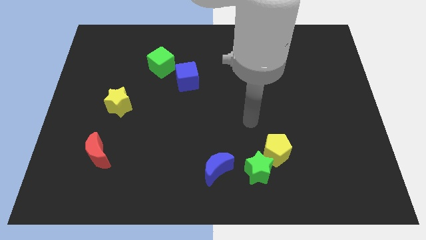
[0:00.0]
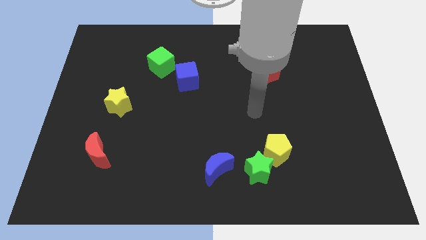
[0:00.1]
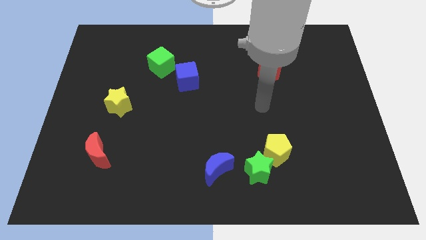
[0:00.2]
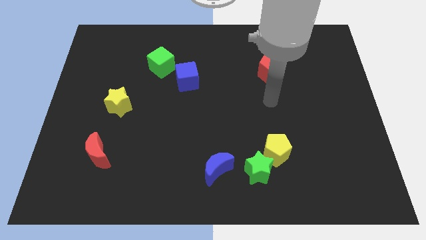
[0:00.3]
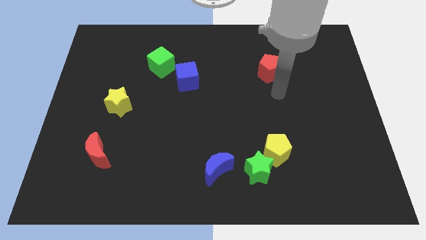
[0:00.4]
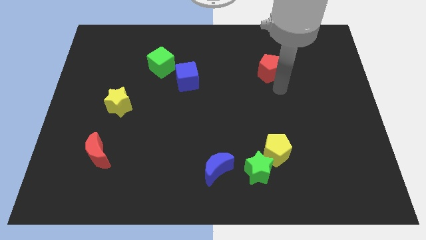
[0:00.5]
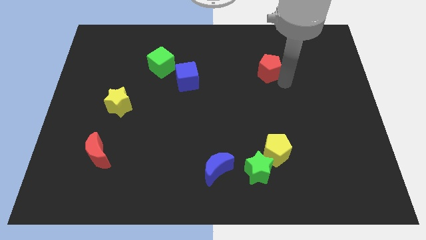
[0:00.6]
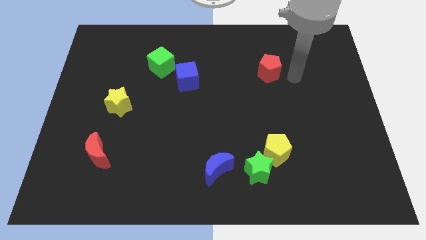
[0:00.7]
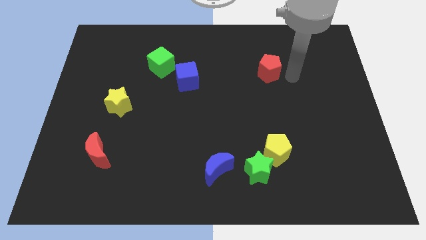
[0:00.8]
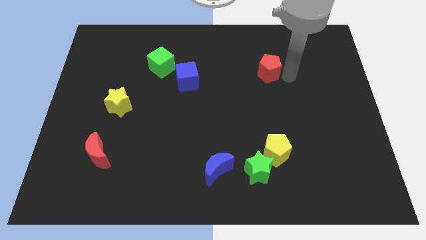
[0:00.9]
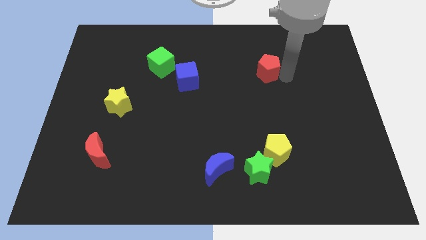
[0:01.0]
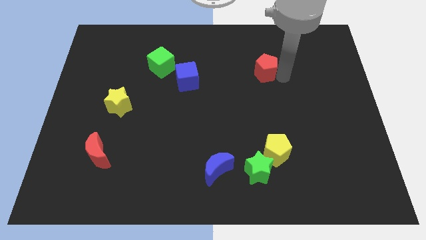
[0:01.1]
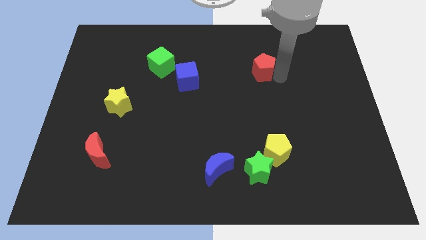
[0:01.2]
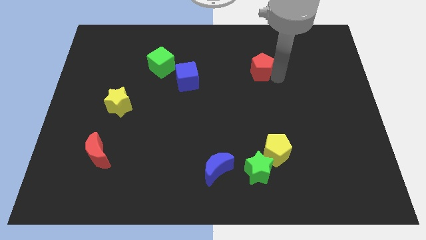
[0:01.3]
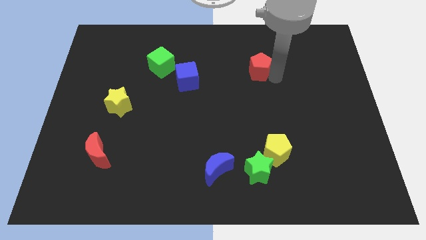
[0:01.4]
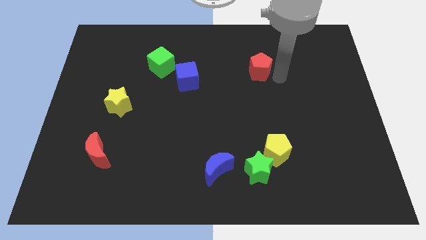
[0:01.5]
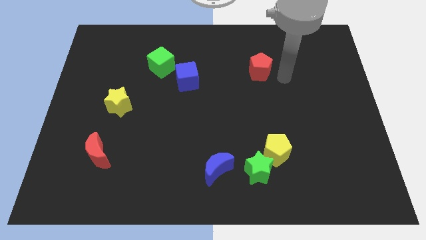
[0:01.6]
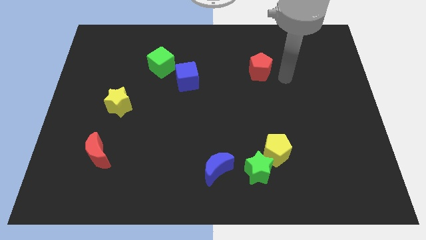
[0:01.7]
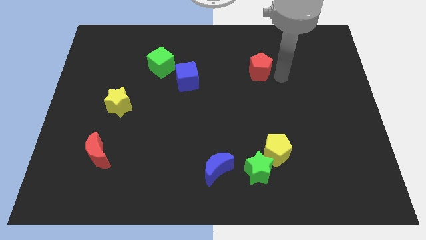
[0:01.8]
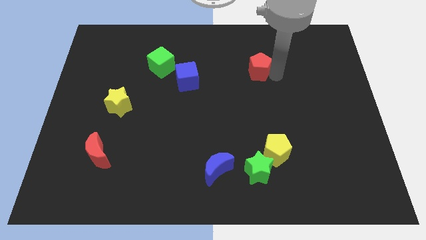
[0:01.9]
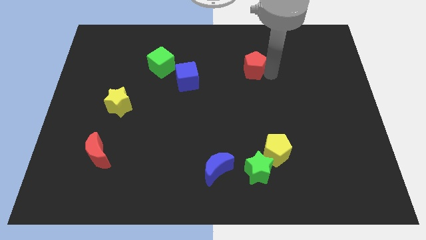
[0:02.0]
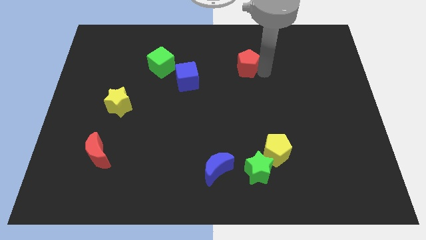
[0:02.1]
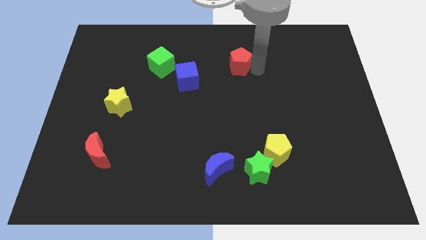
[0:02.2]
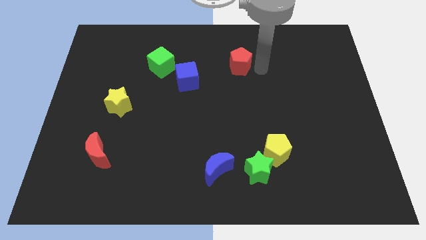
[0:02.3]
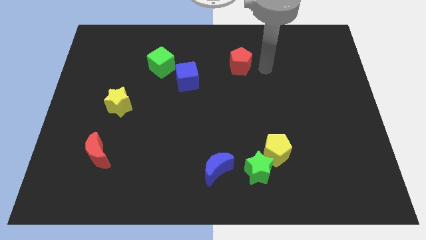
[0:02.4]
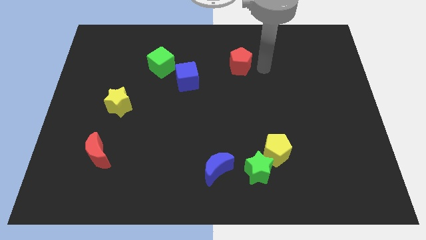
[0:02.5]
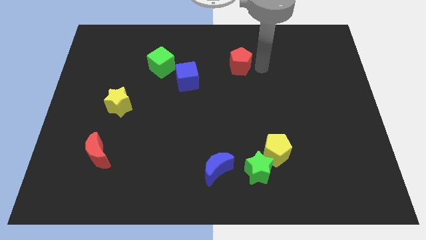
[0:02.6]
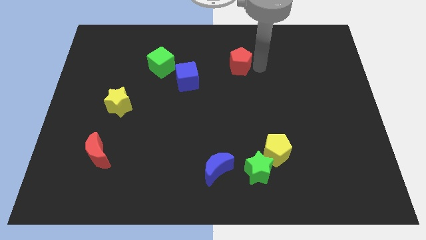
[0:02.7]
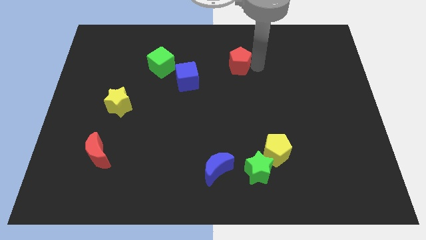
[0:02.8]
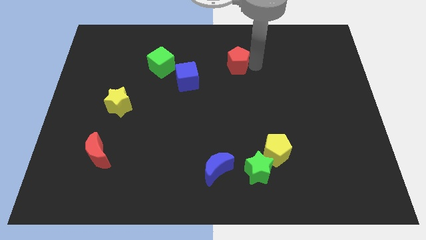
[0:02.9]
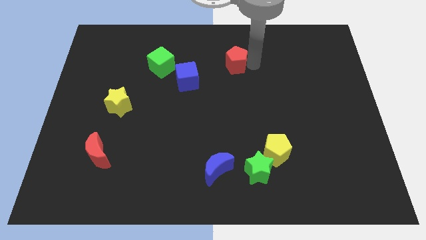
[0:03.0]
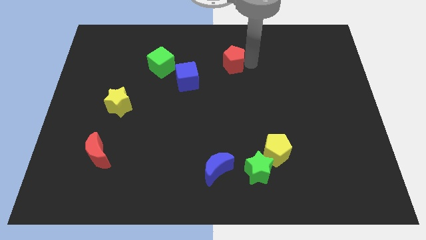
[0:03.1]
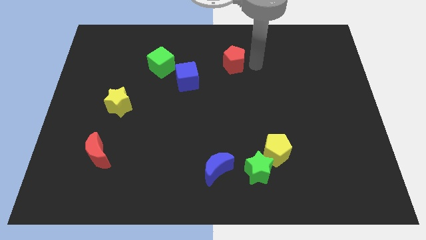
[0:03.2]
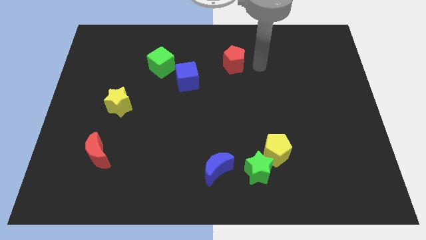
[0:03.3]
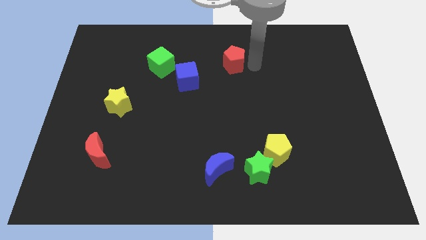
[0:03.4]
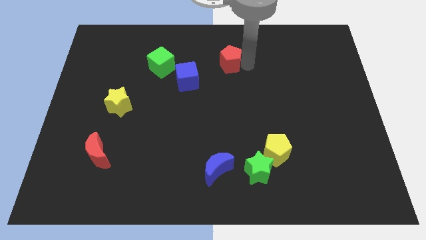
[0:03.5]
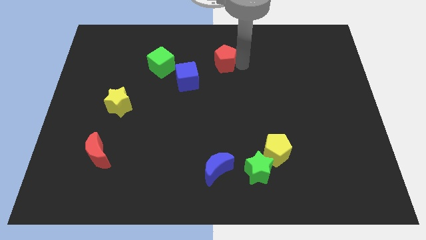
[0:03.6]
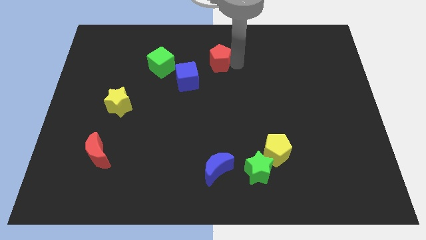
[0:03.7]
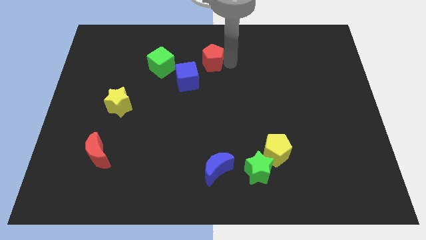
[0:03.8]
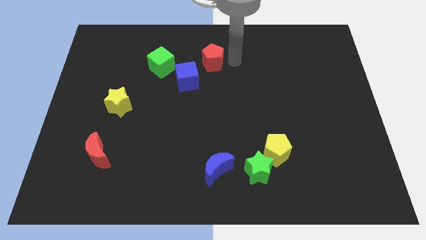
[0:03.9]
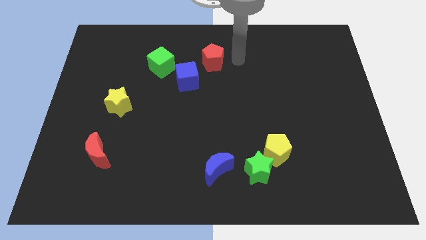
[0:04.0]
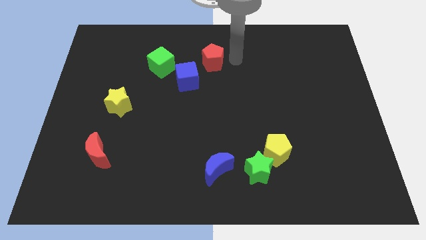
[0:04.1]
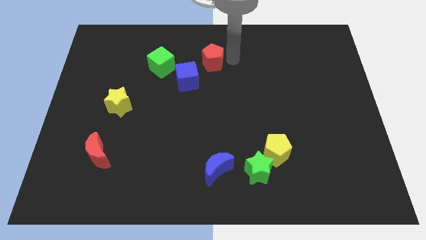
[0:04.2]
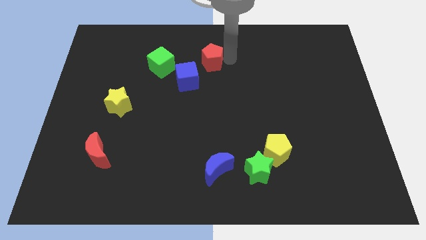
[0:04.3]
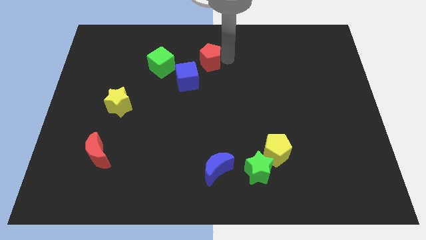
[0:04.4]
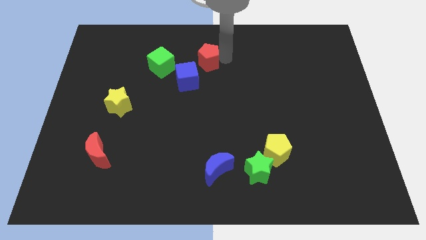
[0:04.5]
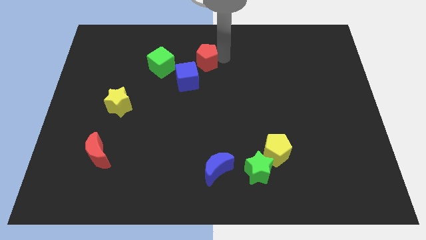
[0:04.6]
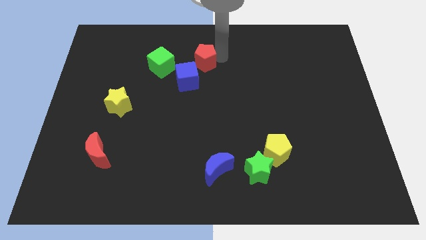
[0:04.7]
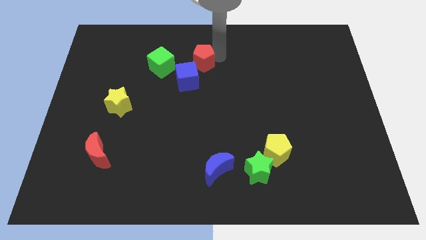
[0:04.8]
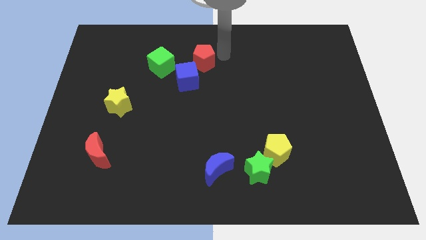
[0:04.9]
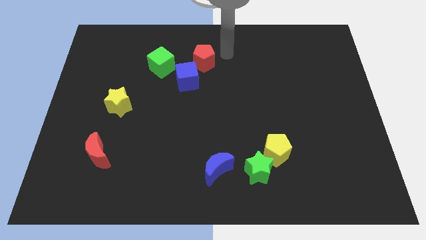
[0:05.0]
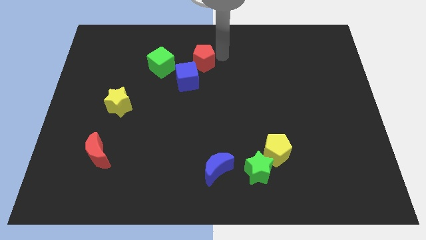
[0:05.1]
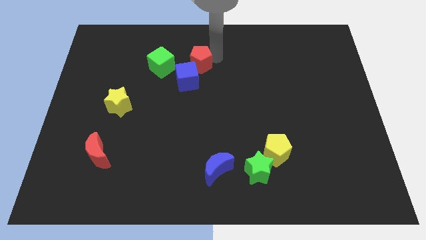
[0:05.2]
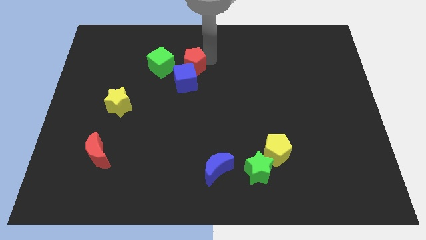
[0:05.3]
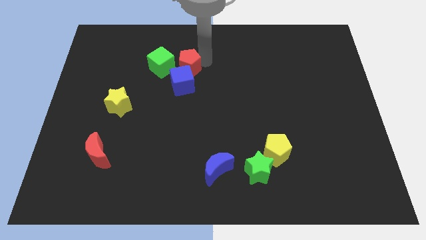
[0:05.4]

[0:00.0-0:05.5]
slide the red pentagon to the left

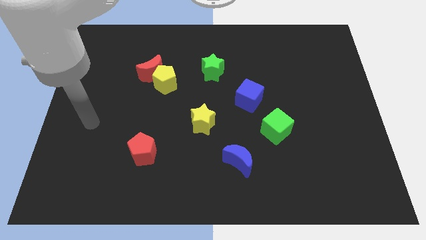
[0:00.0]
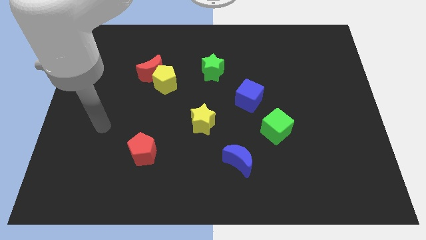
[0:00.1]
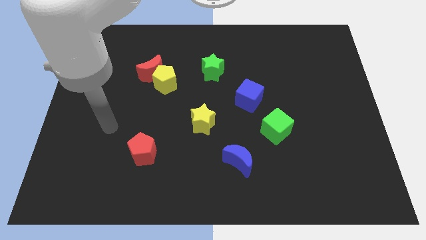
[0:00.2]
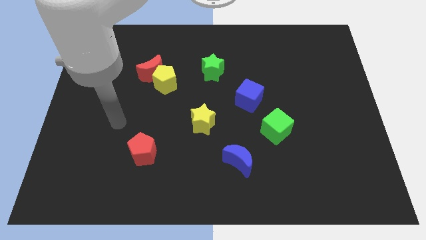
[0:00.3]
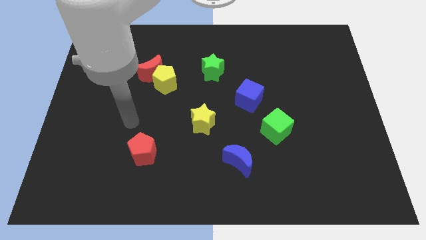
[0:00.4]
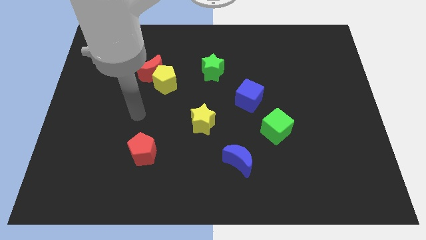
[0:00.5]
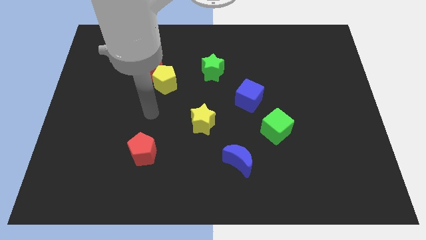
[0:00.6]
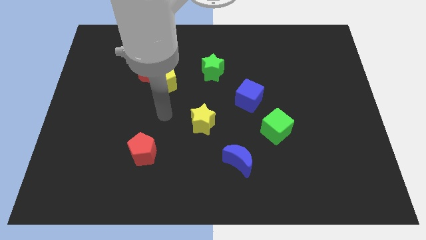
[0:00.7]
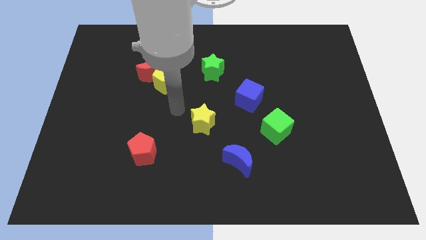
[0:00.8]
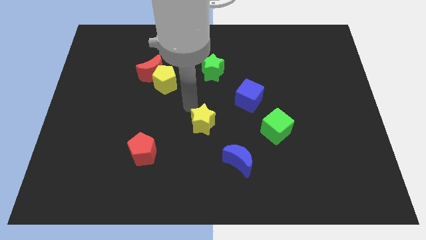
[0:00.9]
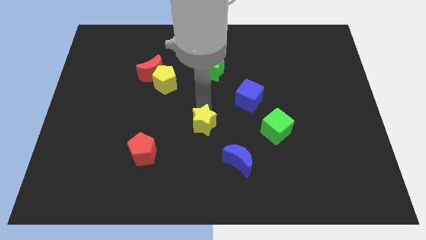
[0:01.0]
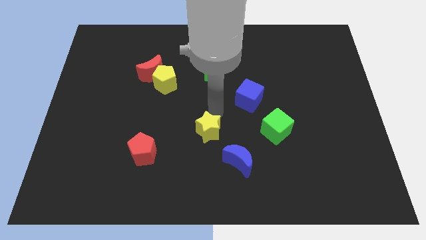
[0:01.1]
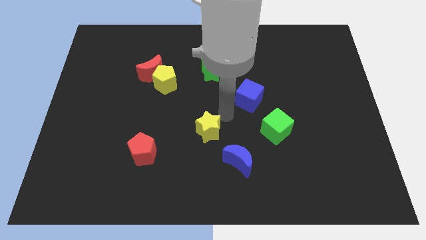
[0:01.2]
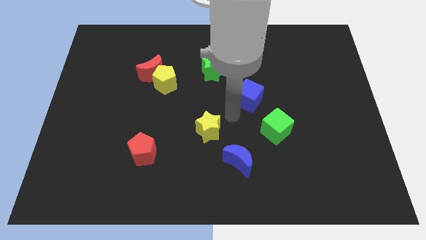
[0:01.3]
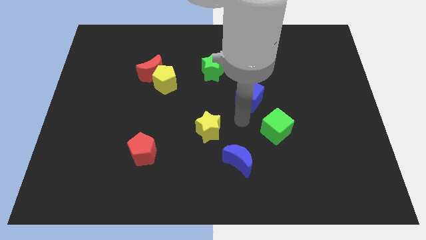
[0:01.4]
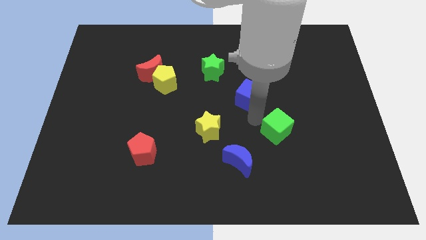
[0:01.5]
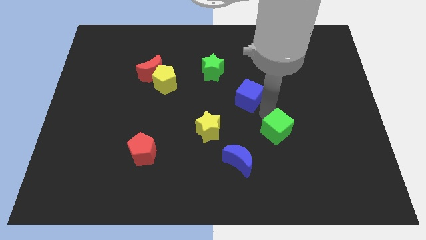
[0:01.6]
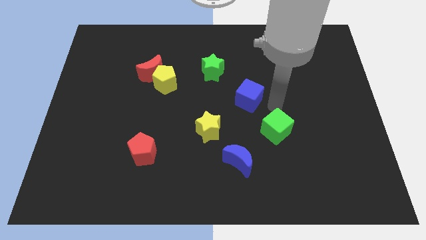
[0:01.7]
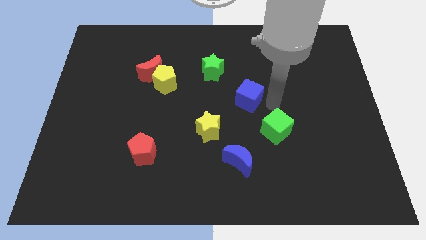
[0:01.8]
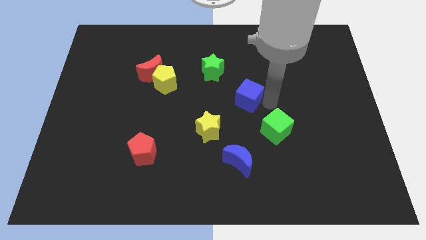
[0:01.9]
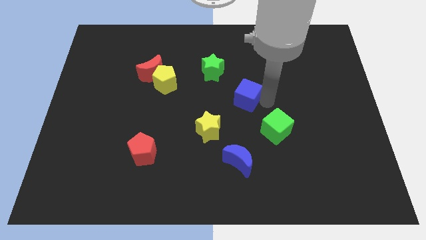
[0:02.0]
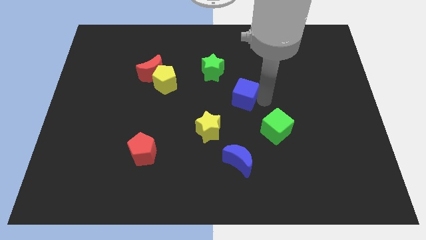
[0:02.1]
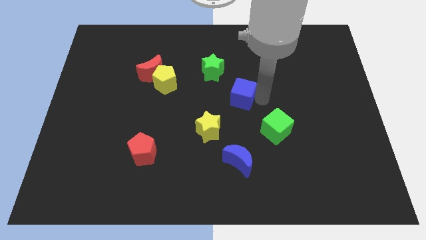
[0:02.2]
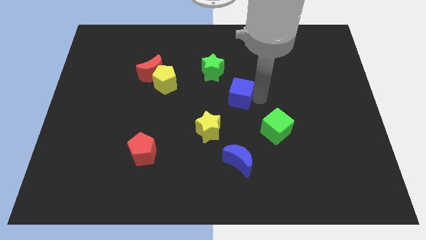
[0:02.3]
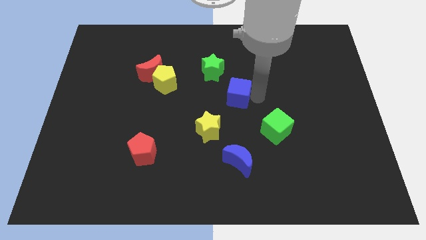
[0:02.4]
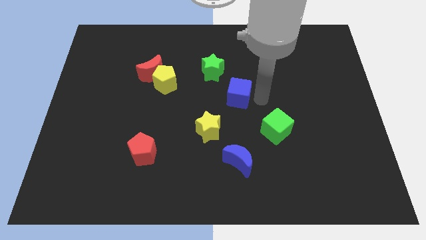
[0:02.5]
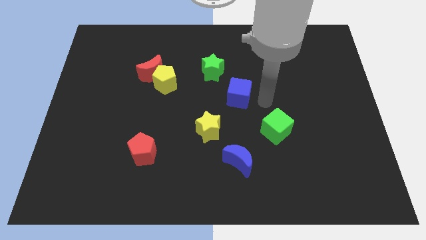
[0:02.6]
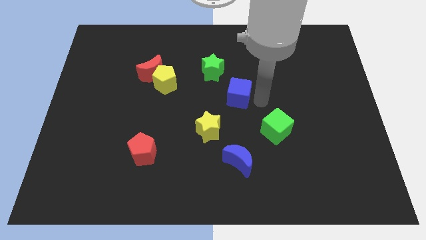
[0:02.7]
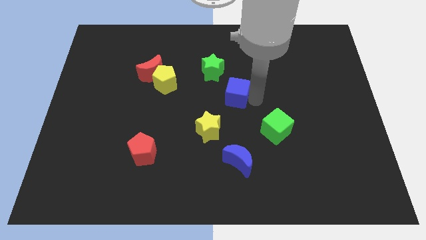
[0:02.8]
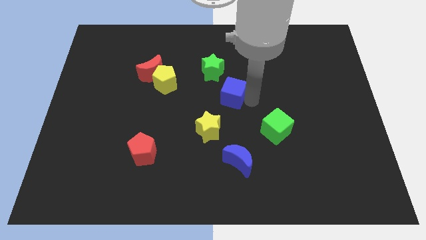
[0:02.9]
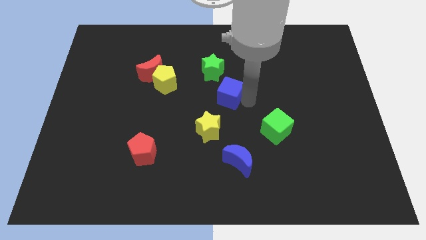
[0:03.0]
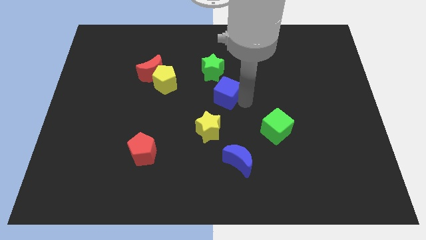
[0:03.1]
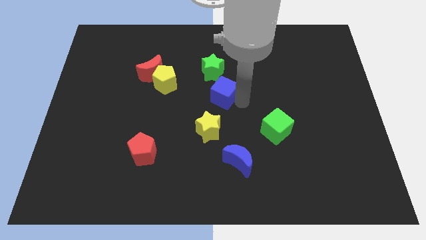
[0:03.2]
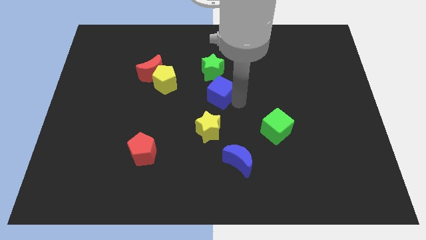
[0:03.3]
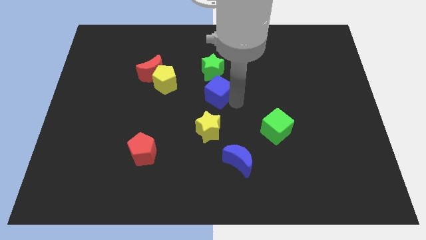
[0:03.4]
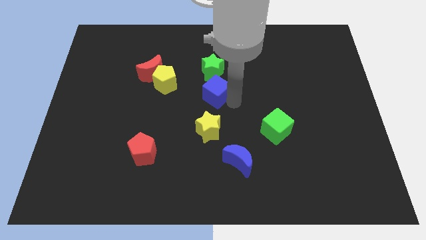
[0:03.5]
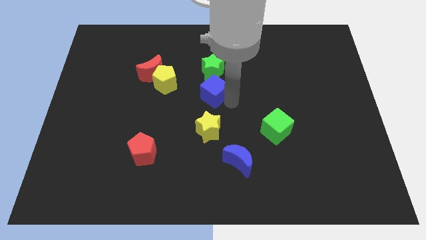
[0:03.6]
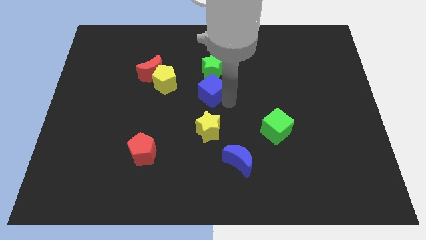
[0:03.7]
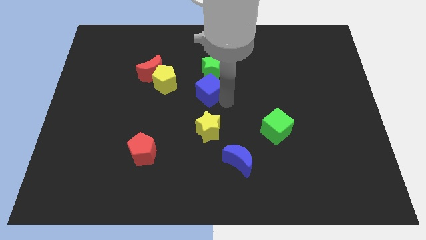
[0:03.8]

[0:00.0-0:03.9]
slide the blue cube upwards and then to the left a bit
